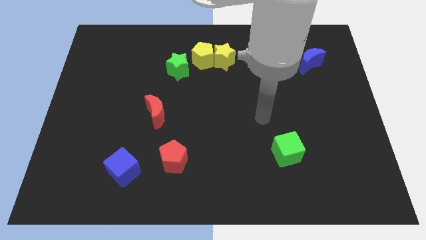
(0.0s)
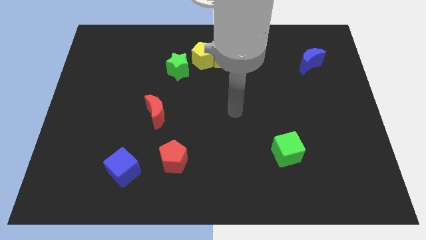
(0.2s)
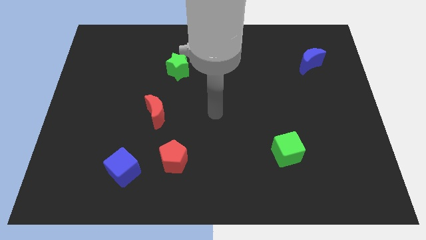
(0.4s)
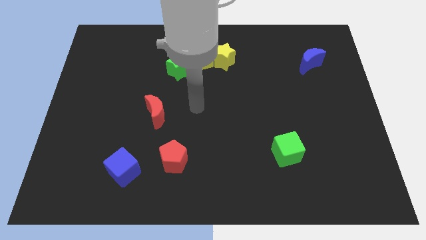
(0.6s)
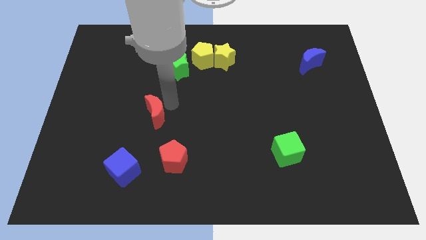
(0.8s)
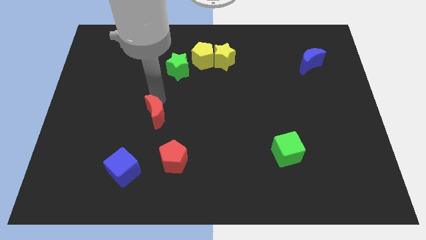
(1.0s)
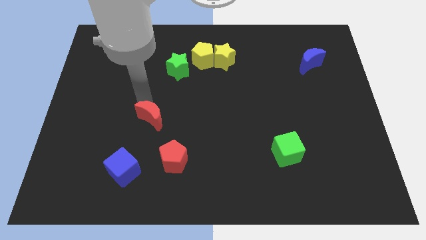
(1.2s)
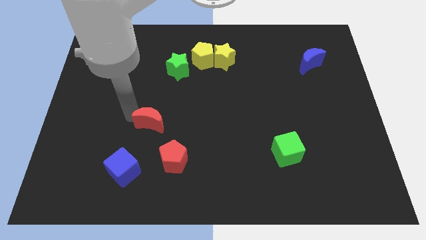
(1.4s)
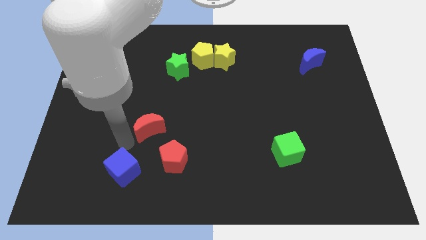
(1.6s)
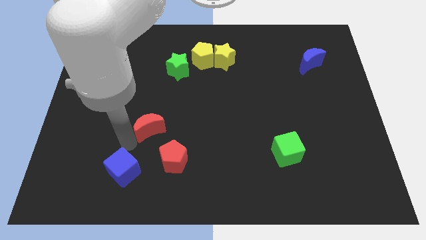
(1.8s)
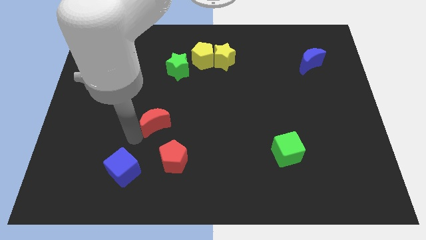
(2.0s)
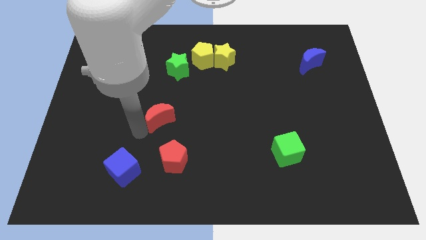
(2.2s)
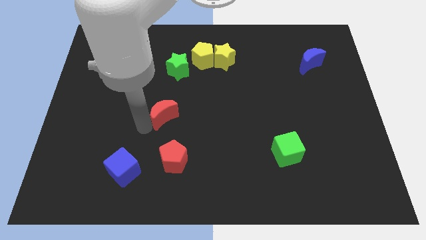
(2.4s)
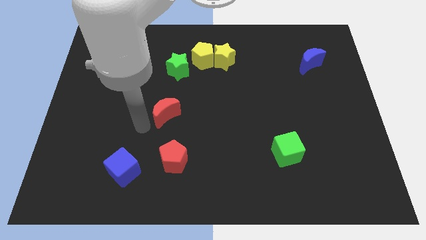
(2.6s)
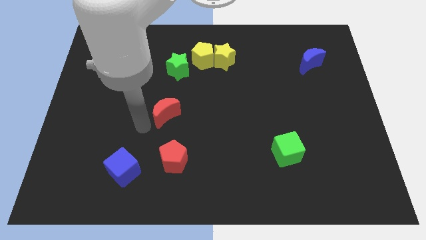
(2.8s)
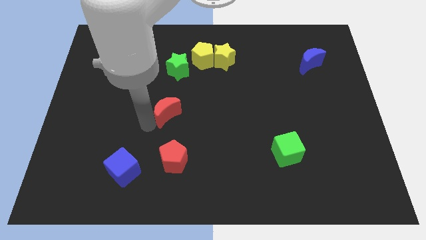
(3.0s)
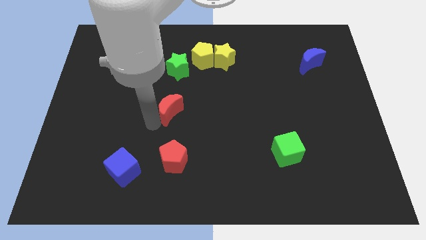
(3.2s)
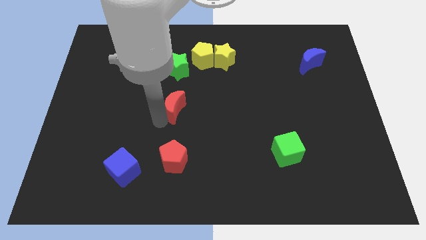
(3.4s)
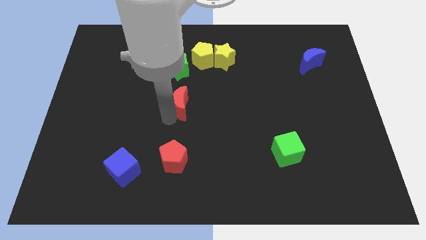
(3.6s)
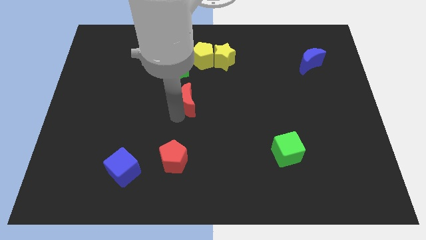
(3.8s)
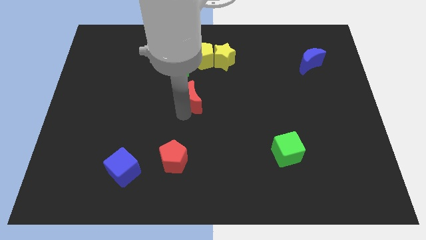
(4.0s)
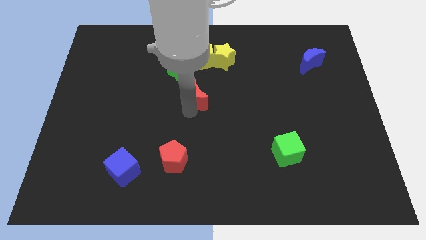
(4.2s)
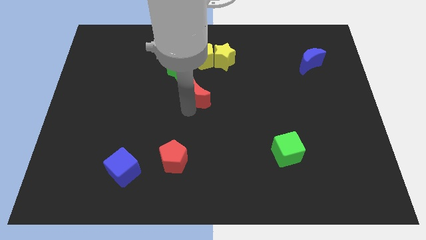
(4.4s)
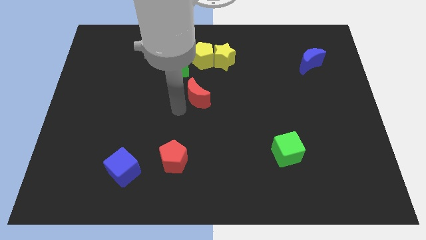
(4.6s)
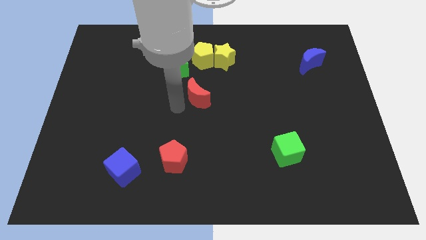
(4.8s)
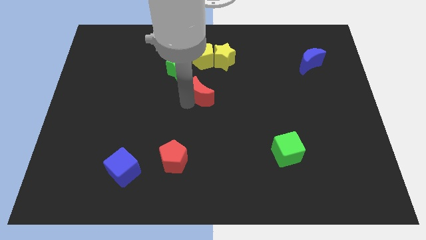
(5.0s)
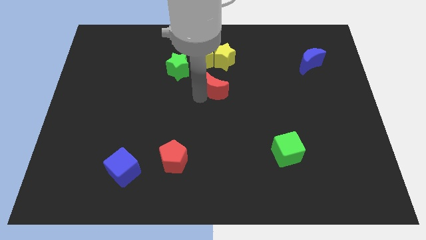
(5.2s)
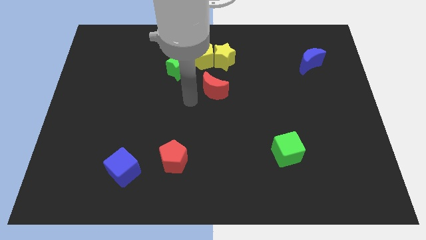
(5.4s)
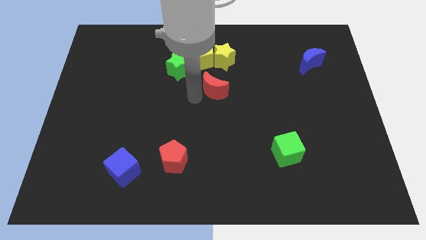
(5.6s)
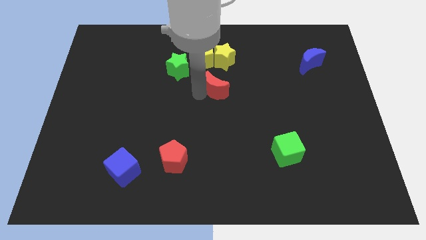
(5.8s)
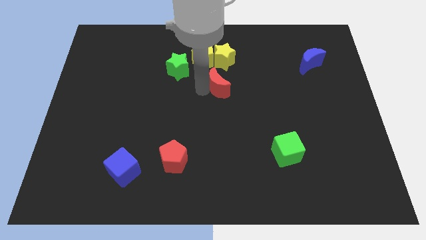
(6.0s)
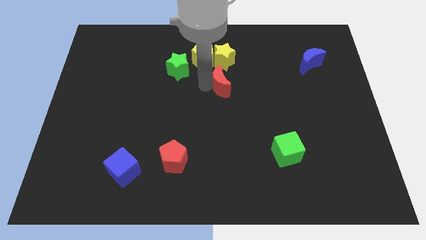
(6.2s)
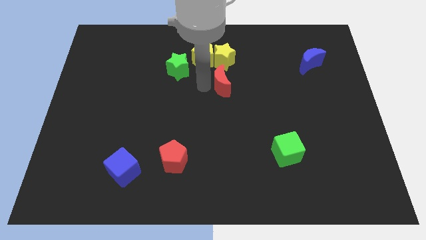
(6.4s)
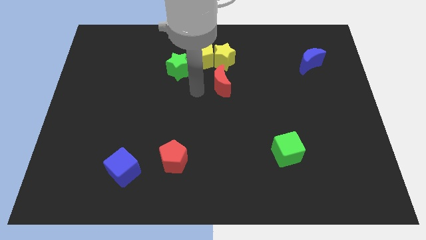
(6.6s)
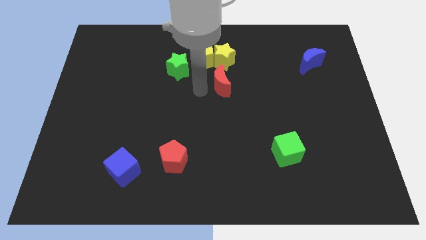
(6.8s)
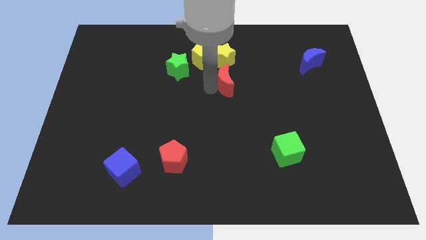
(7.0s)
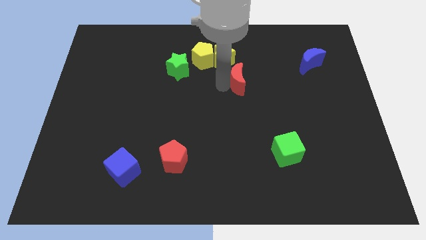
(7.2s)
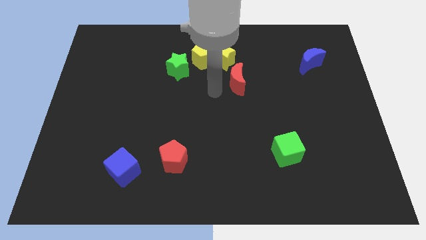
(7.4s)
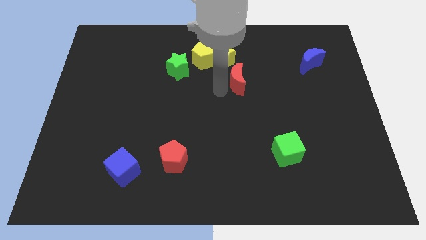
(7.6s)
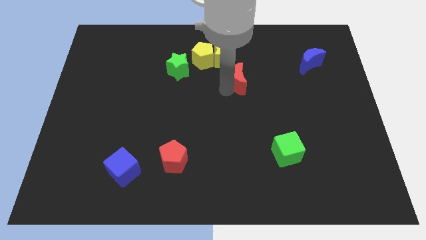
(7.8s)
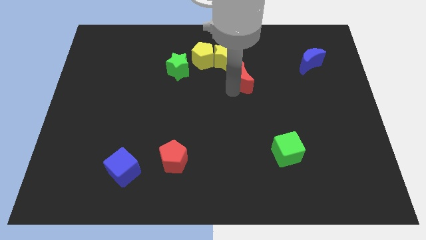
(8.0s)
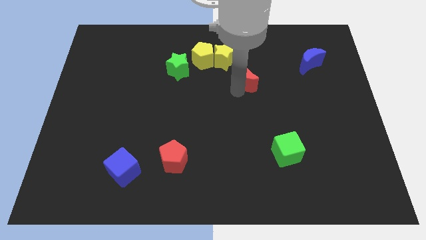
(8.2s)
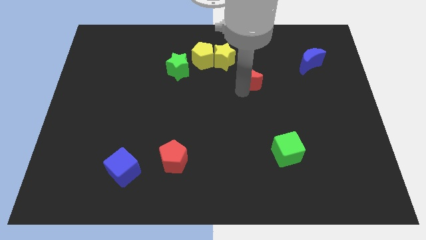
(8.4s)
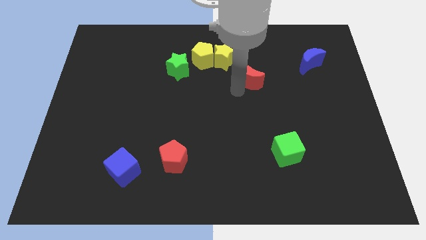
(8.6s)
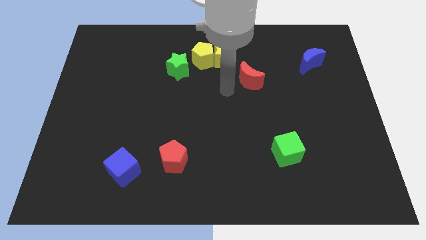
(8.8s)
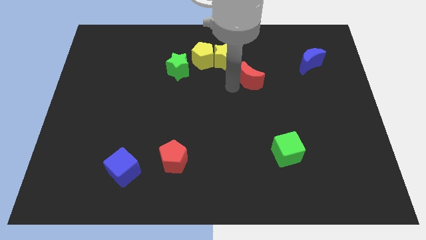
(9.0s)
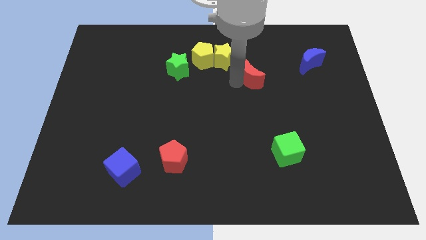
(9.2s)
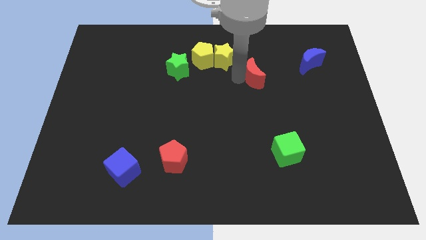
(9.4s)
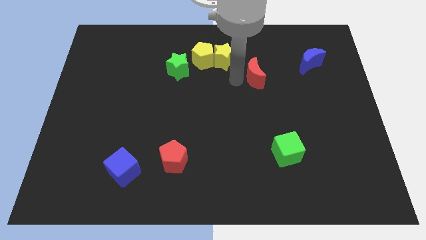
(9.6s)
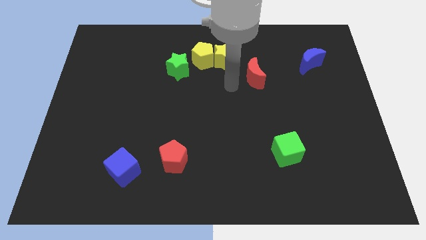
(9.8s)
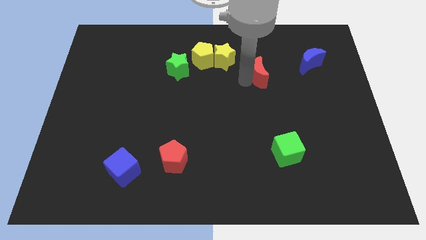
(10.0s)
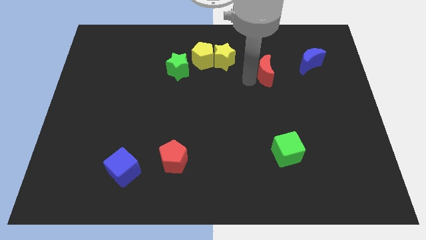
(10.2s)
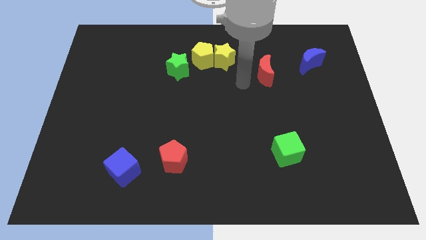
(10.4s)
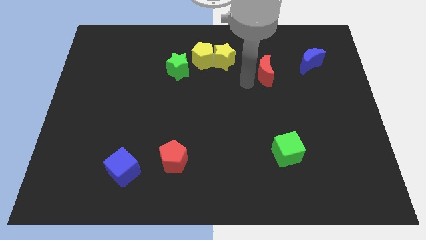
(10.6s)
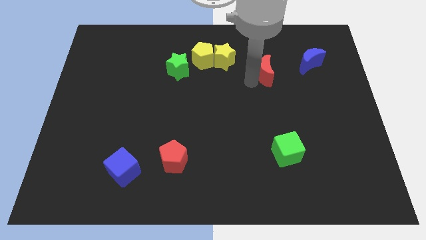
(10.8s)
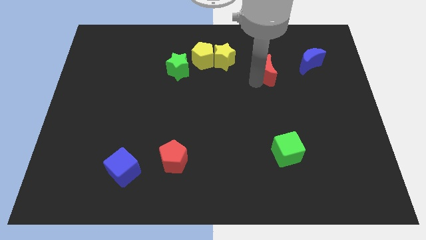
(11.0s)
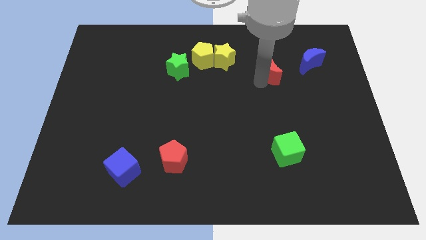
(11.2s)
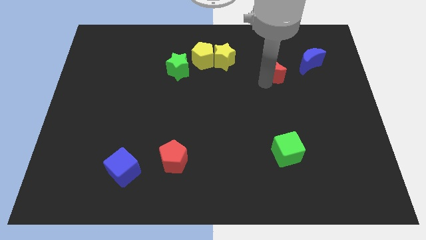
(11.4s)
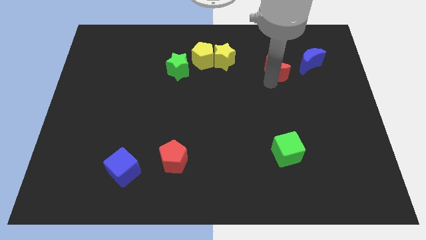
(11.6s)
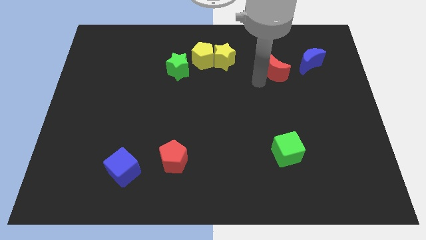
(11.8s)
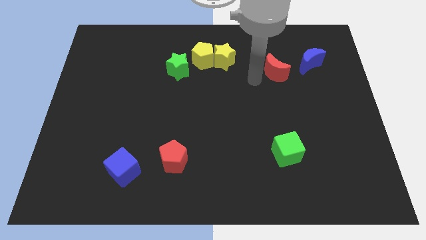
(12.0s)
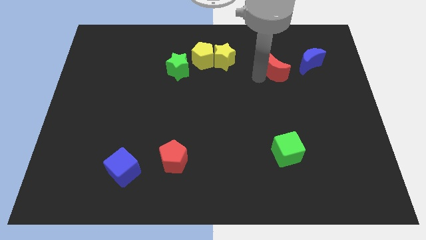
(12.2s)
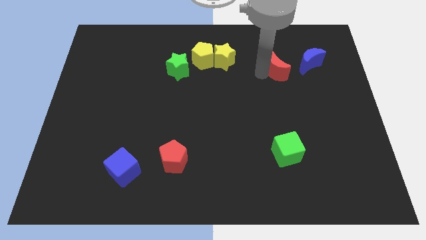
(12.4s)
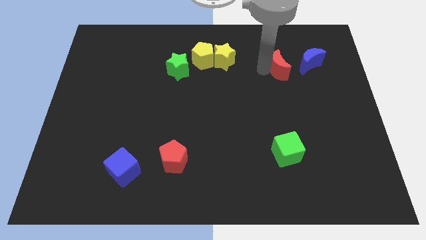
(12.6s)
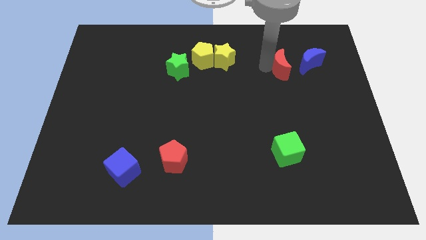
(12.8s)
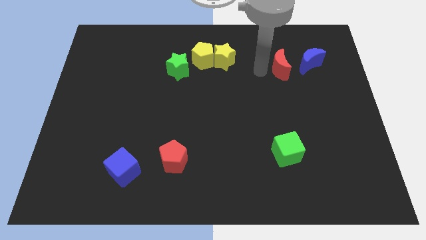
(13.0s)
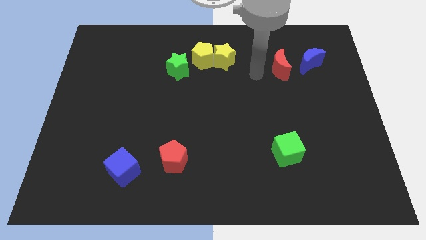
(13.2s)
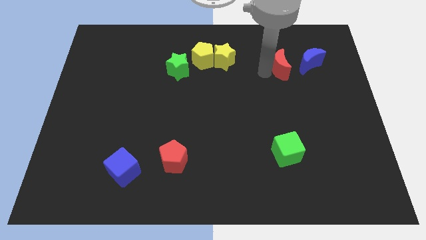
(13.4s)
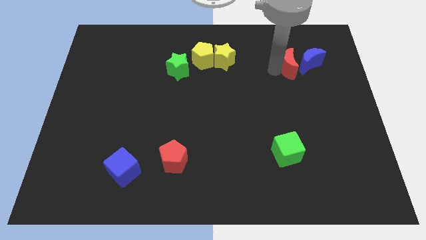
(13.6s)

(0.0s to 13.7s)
slide the red moon next to the blue moon

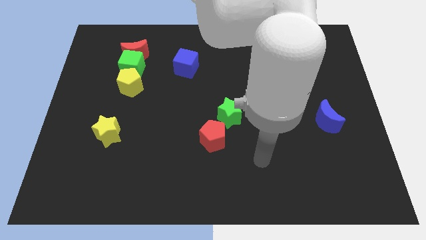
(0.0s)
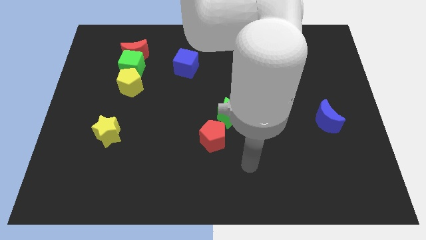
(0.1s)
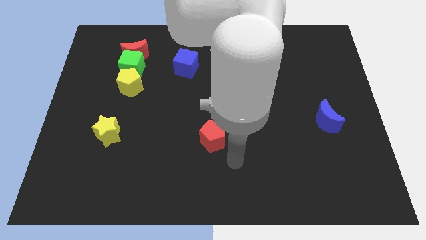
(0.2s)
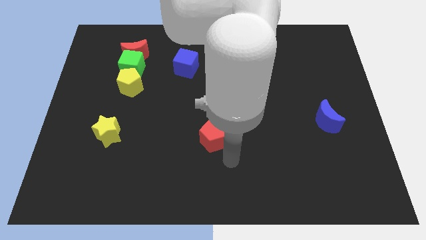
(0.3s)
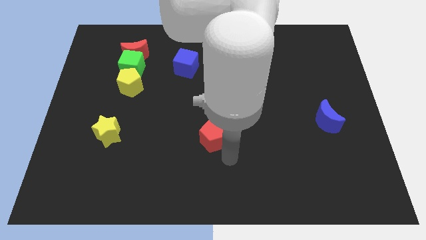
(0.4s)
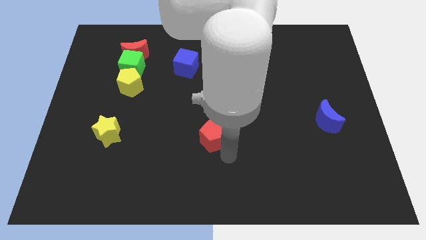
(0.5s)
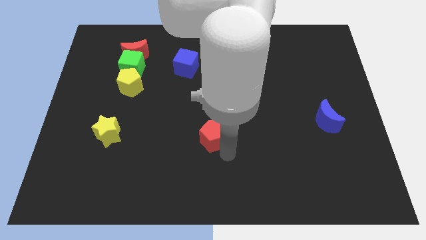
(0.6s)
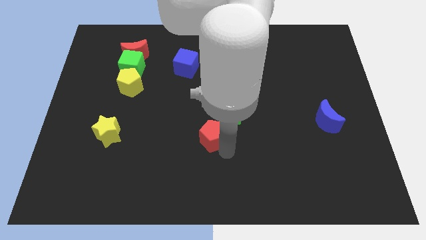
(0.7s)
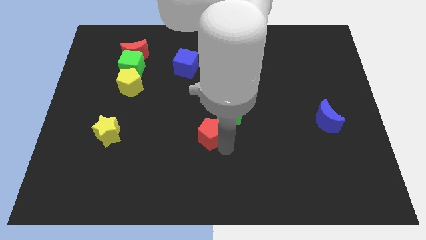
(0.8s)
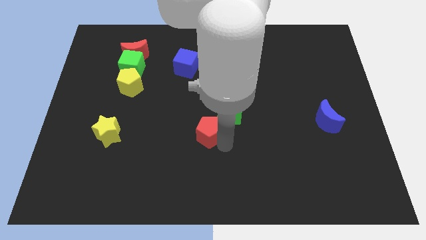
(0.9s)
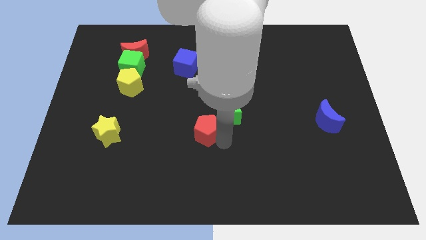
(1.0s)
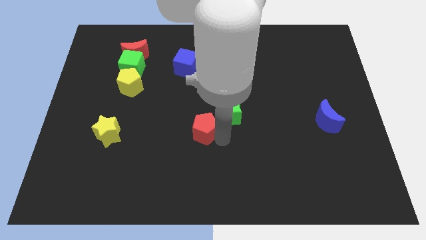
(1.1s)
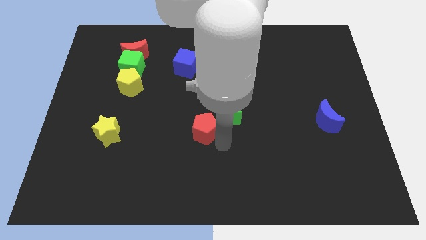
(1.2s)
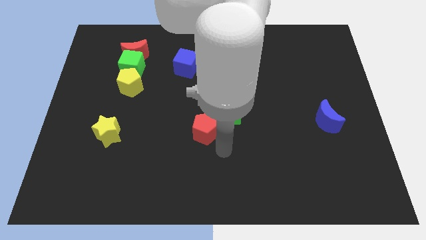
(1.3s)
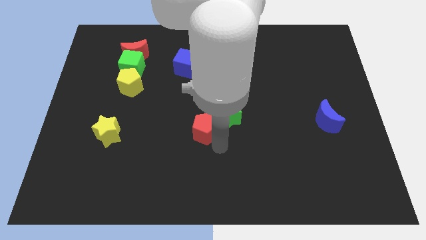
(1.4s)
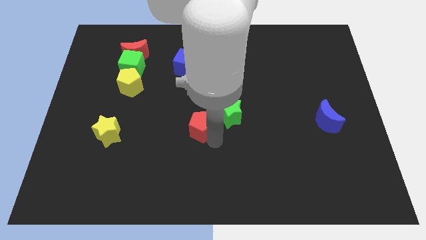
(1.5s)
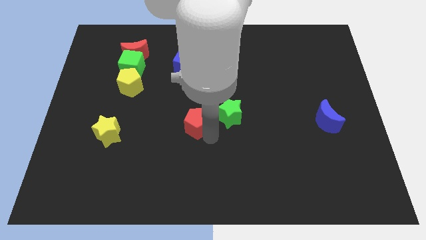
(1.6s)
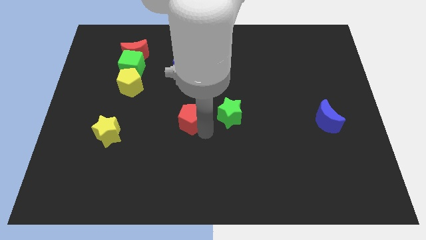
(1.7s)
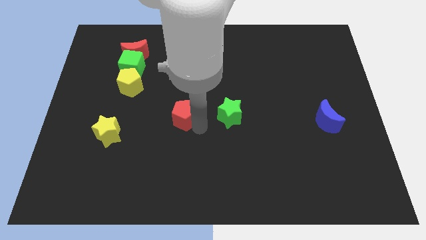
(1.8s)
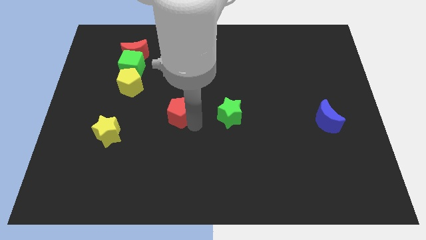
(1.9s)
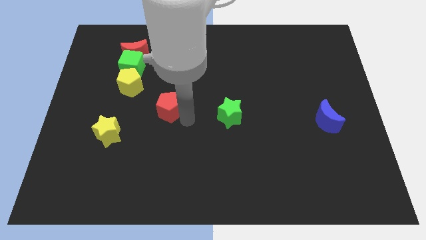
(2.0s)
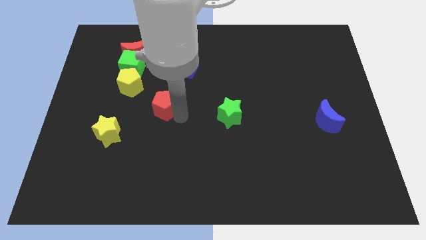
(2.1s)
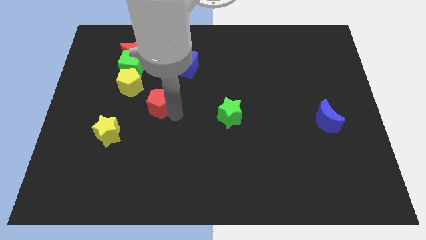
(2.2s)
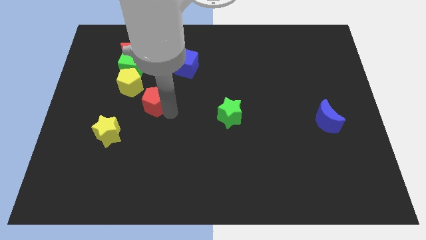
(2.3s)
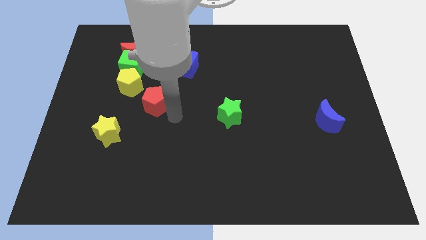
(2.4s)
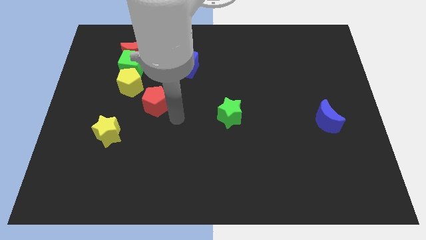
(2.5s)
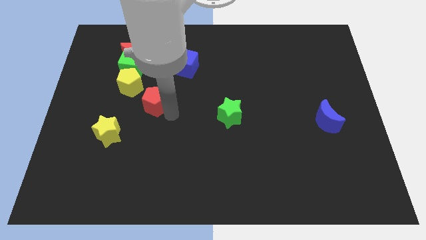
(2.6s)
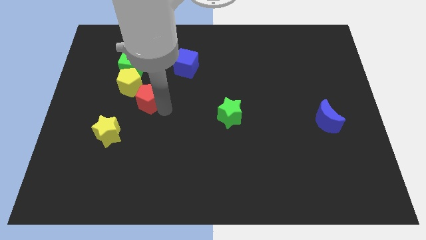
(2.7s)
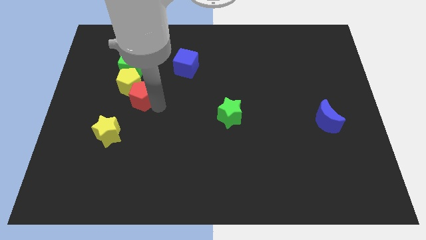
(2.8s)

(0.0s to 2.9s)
move the red pentagon to the yellow pentagon
